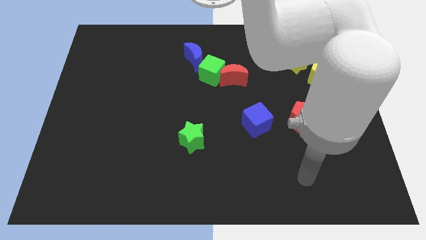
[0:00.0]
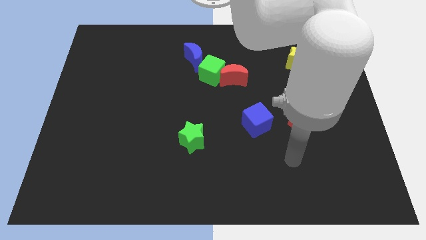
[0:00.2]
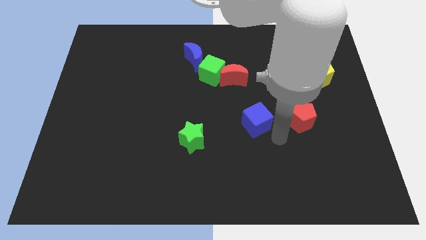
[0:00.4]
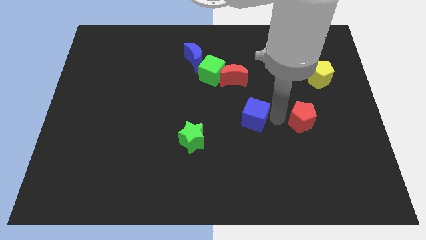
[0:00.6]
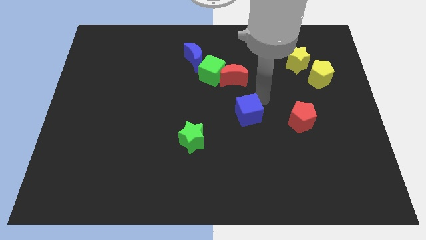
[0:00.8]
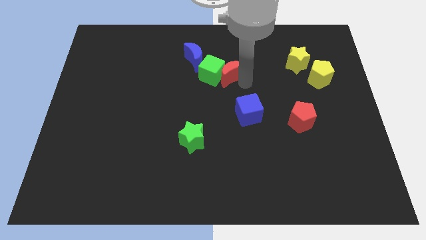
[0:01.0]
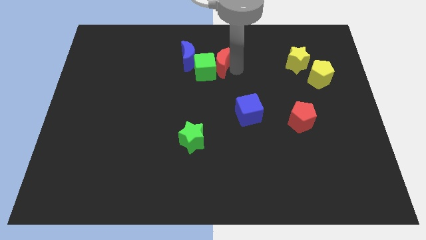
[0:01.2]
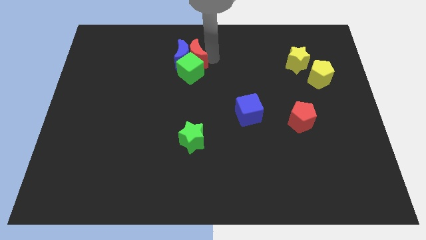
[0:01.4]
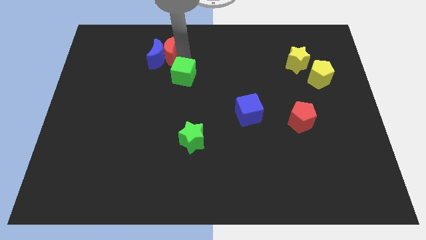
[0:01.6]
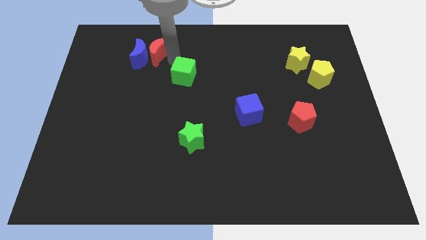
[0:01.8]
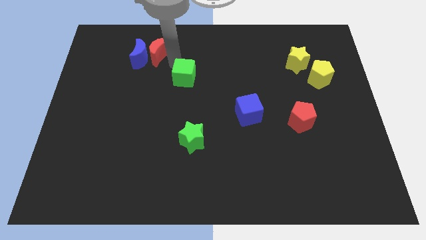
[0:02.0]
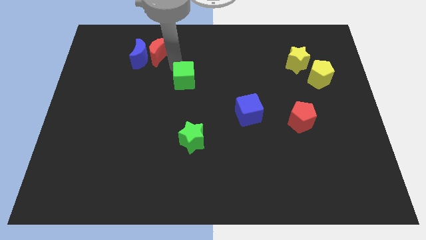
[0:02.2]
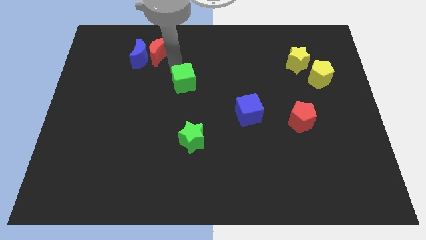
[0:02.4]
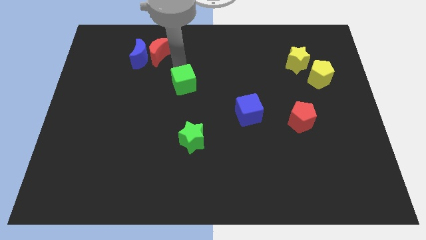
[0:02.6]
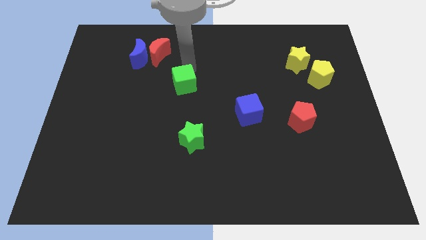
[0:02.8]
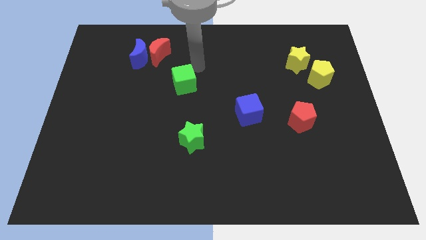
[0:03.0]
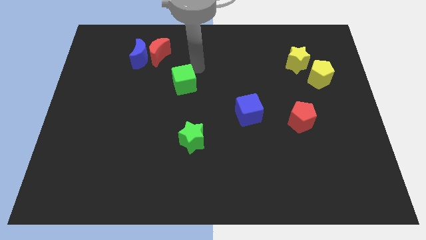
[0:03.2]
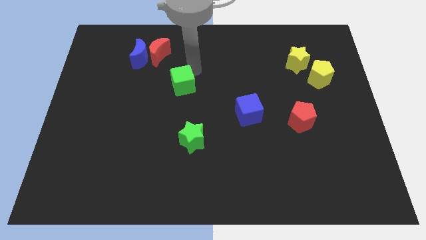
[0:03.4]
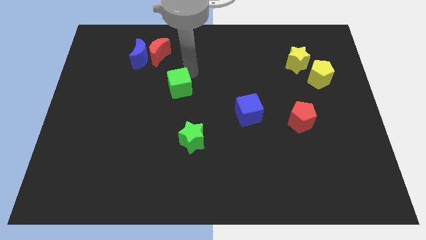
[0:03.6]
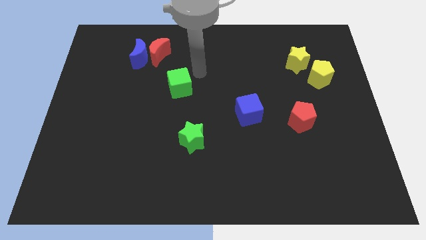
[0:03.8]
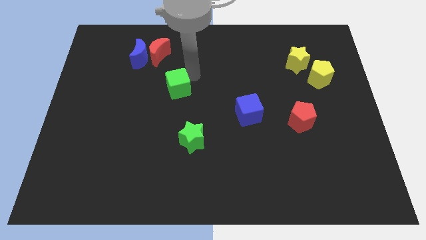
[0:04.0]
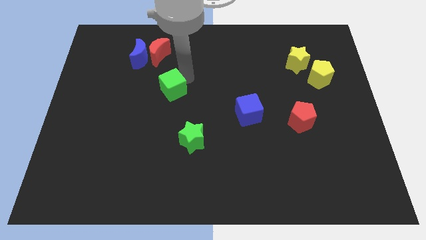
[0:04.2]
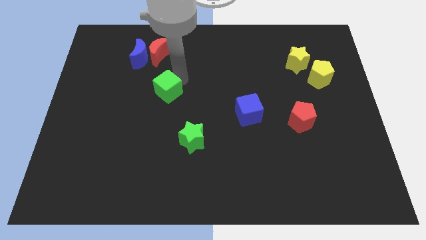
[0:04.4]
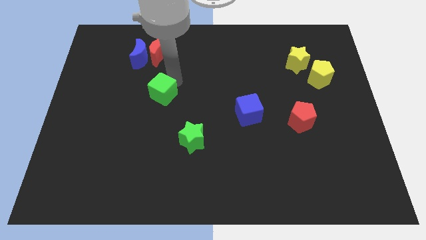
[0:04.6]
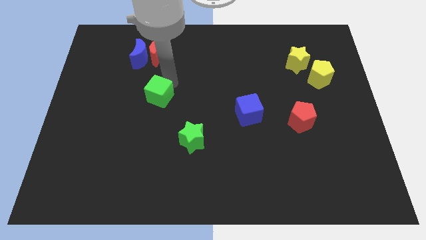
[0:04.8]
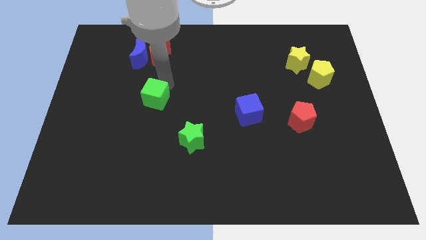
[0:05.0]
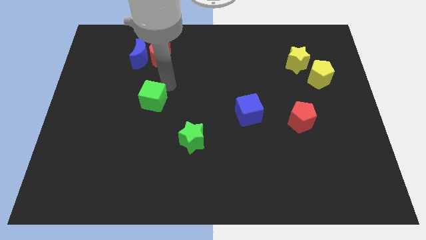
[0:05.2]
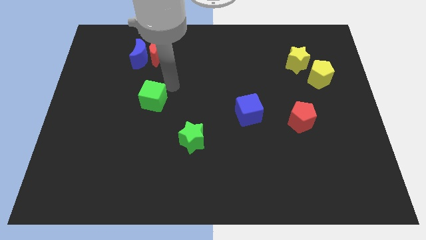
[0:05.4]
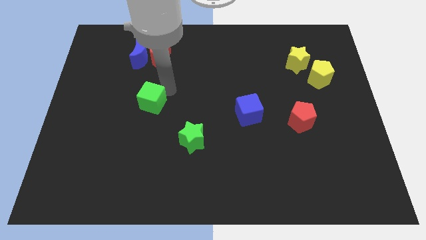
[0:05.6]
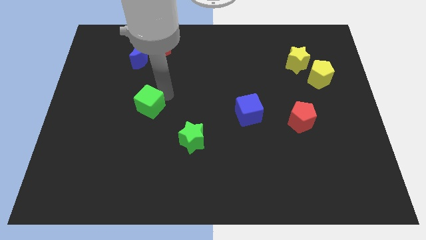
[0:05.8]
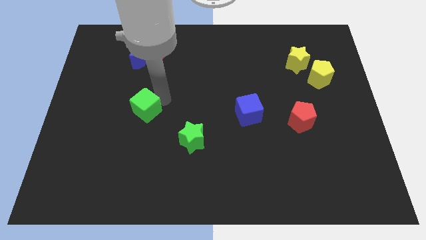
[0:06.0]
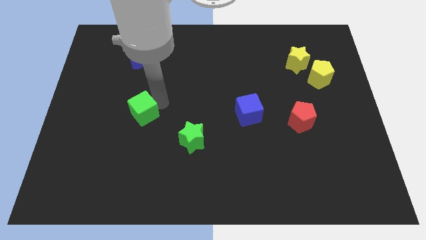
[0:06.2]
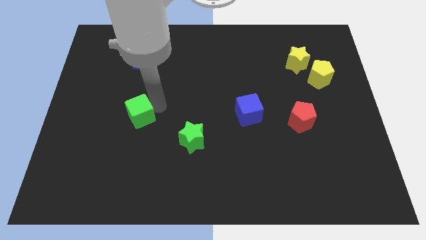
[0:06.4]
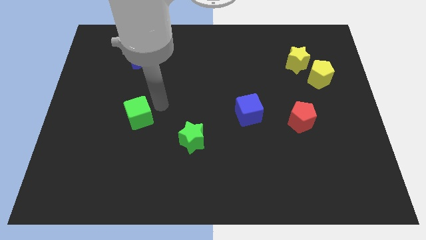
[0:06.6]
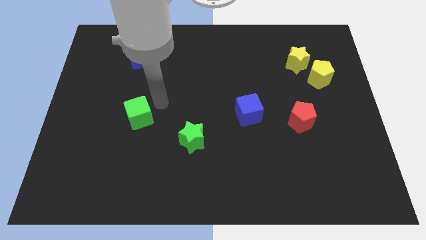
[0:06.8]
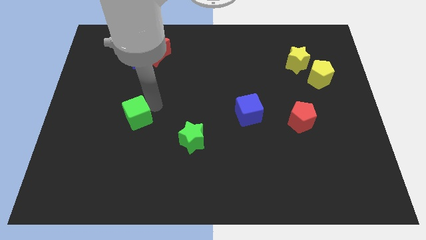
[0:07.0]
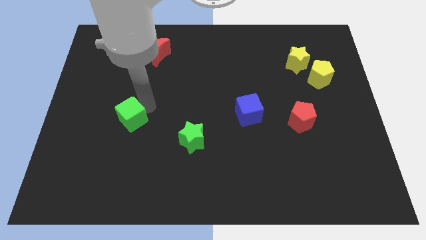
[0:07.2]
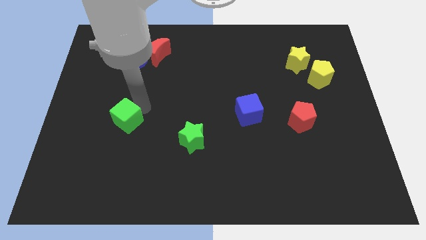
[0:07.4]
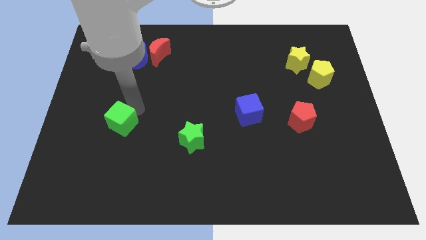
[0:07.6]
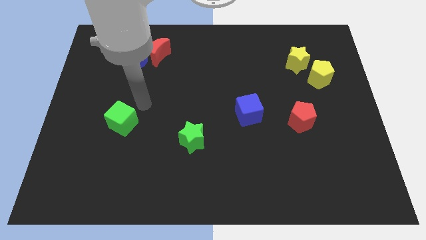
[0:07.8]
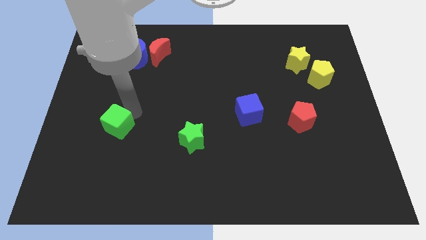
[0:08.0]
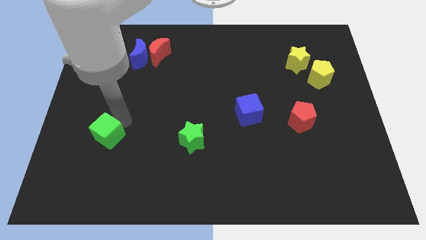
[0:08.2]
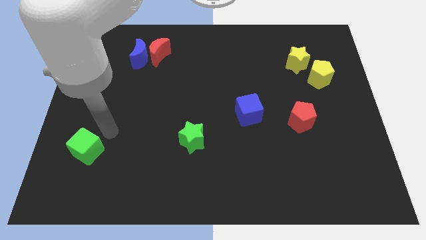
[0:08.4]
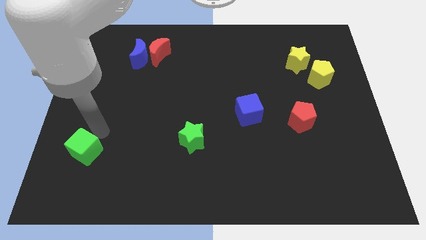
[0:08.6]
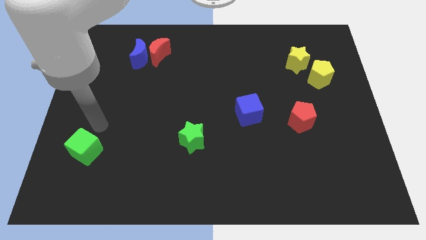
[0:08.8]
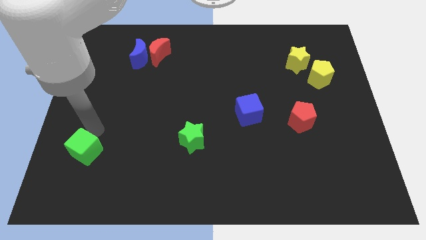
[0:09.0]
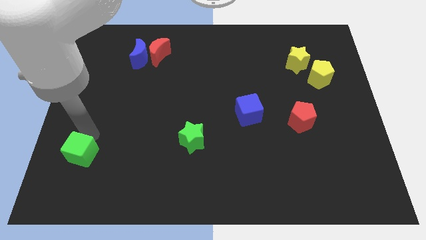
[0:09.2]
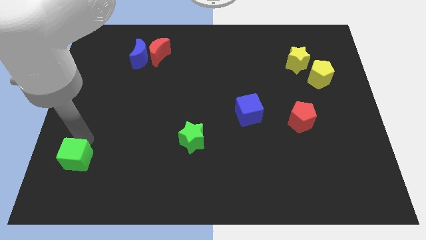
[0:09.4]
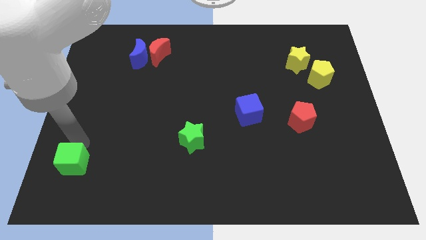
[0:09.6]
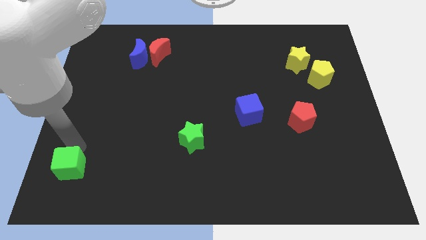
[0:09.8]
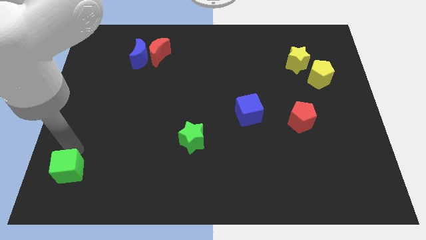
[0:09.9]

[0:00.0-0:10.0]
push the green cube to the bottom left corner

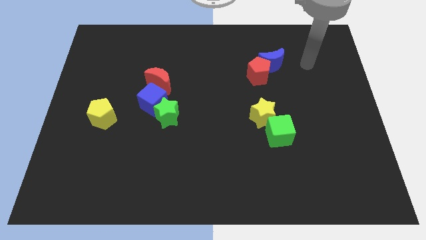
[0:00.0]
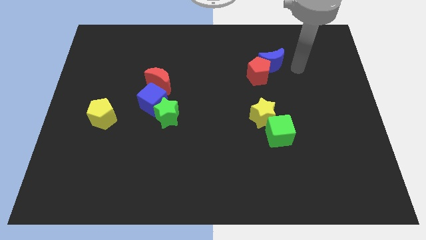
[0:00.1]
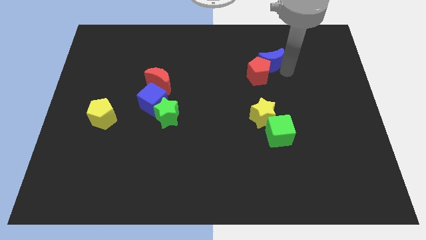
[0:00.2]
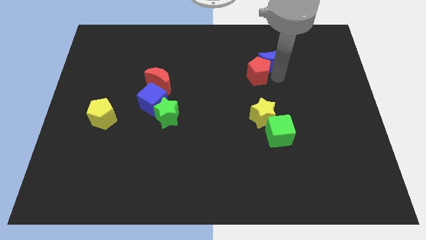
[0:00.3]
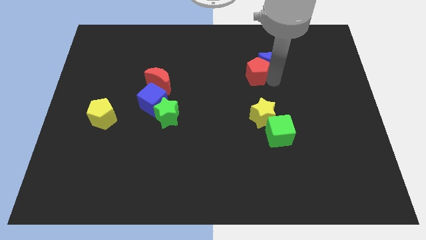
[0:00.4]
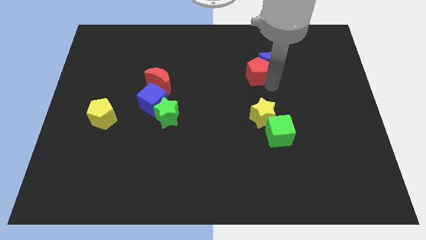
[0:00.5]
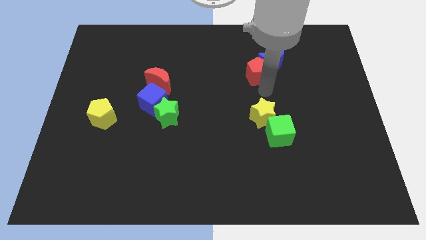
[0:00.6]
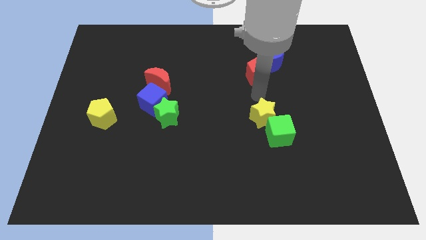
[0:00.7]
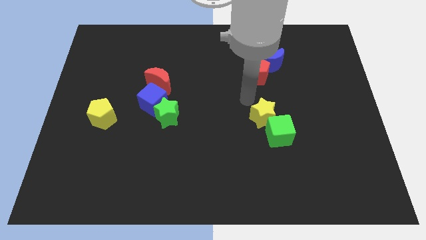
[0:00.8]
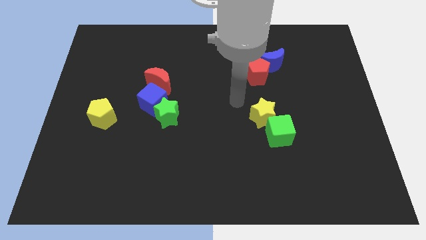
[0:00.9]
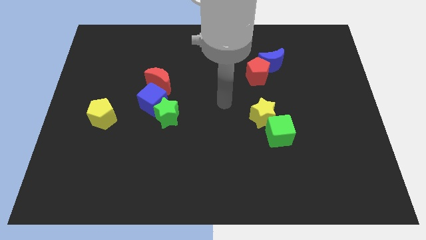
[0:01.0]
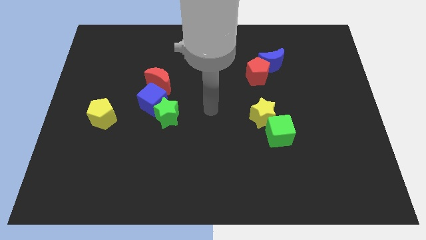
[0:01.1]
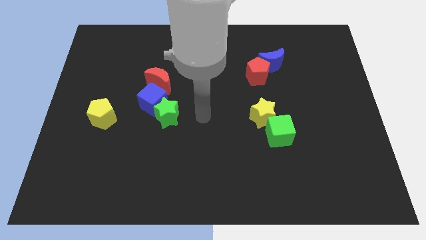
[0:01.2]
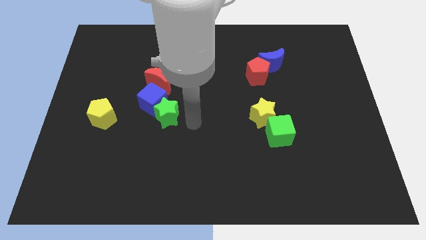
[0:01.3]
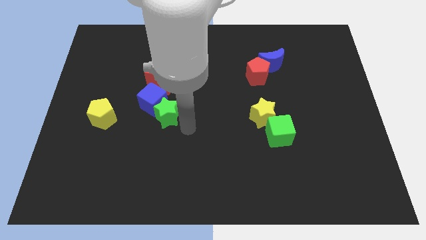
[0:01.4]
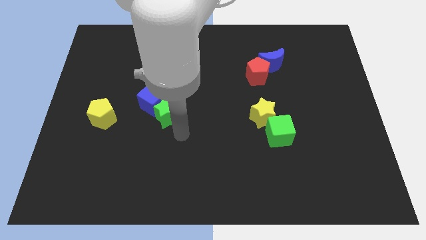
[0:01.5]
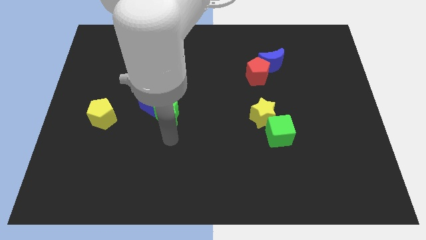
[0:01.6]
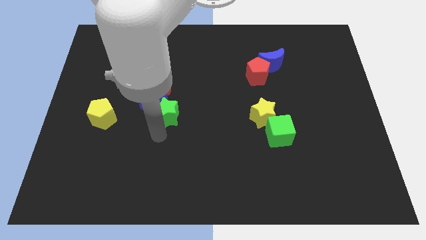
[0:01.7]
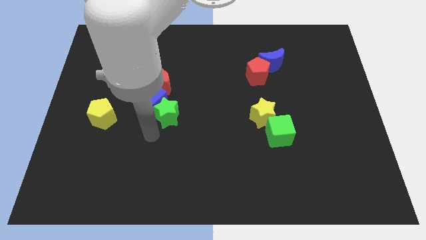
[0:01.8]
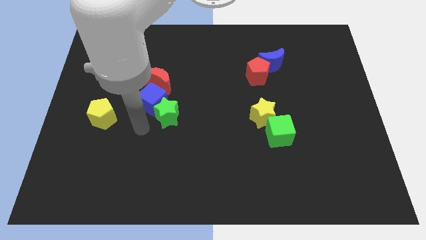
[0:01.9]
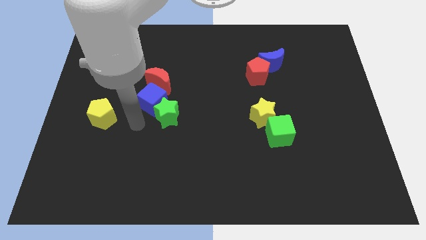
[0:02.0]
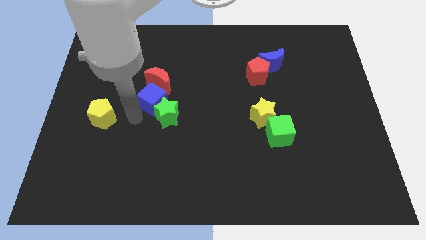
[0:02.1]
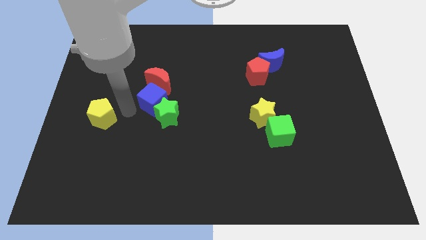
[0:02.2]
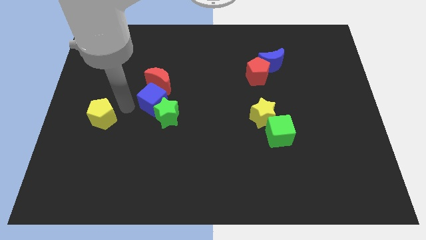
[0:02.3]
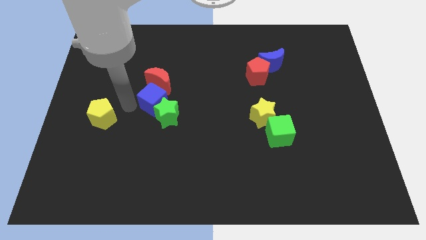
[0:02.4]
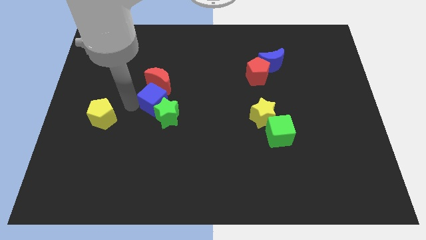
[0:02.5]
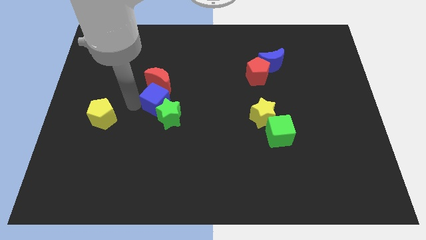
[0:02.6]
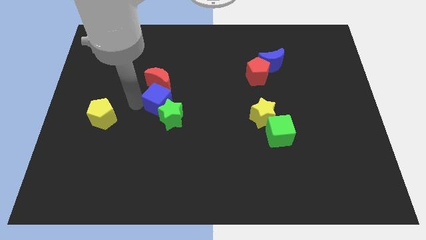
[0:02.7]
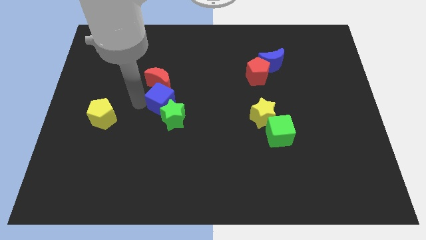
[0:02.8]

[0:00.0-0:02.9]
push the blue cube to the middle of the board
